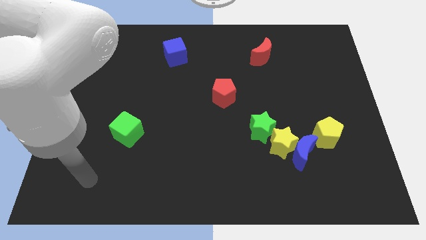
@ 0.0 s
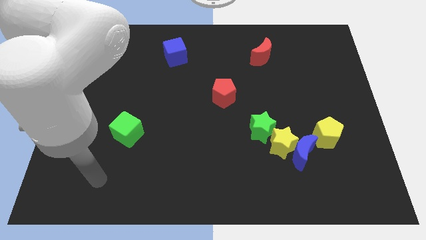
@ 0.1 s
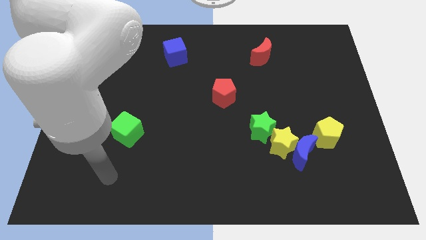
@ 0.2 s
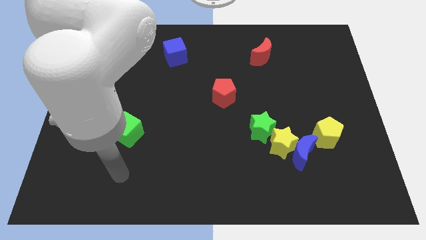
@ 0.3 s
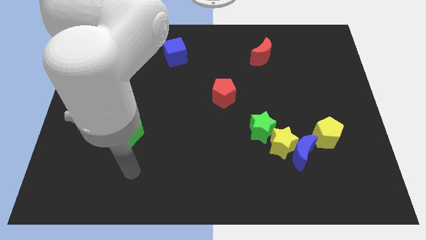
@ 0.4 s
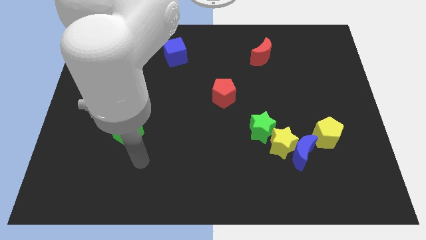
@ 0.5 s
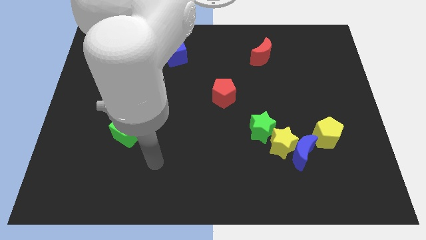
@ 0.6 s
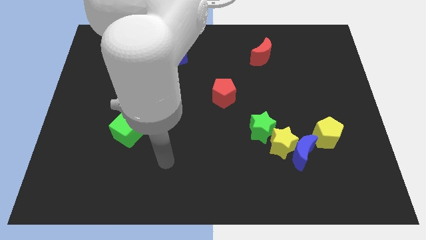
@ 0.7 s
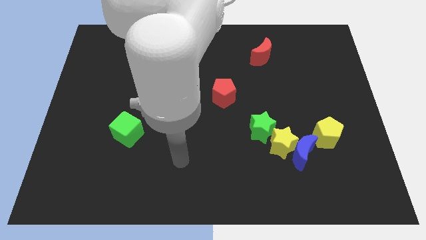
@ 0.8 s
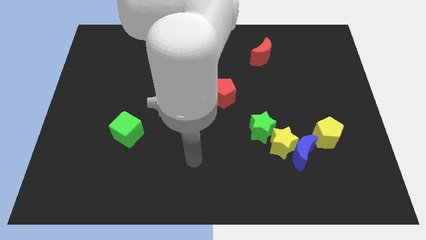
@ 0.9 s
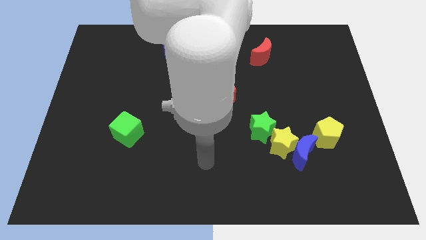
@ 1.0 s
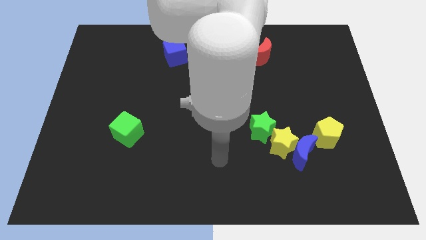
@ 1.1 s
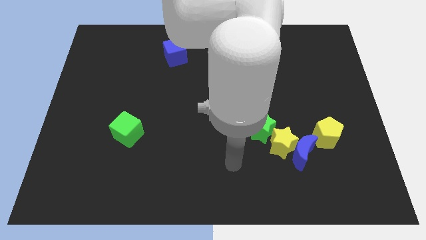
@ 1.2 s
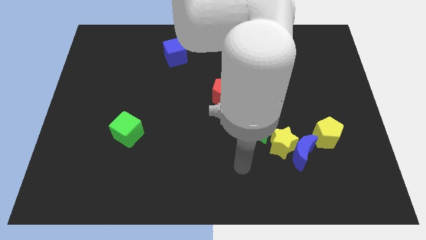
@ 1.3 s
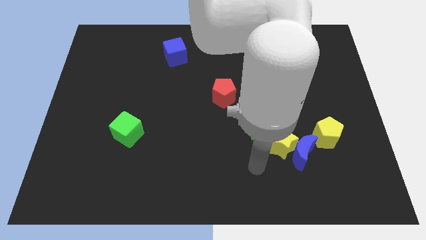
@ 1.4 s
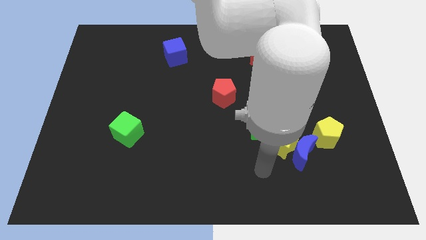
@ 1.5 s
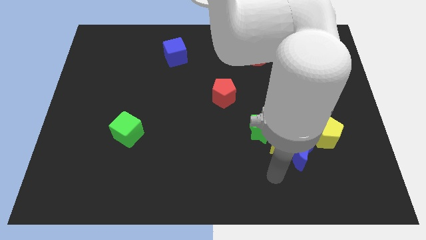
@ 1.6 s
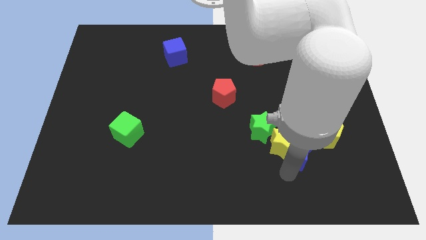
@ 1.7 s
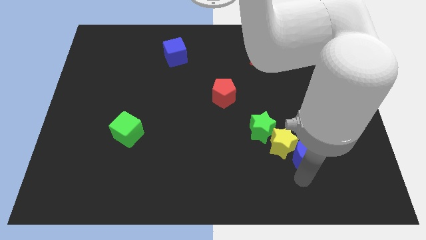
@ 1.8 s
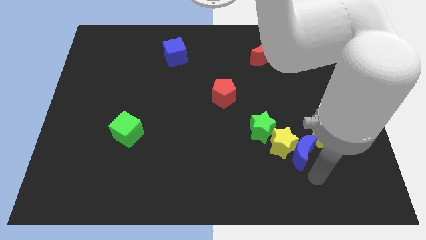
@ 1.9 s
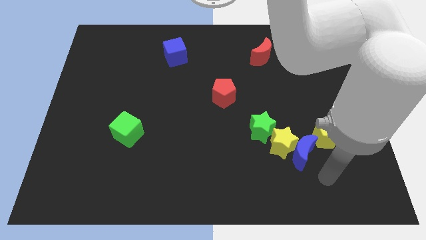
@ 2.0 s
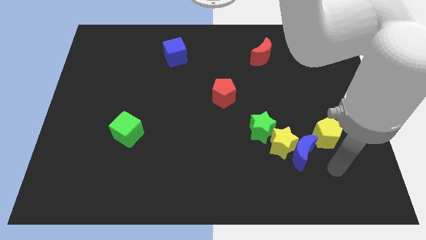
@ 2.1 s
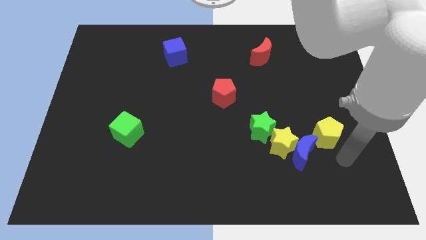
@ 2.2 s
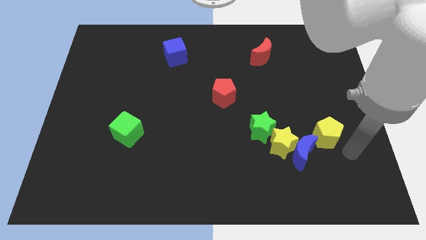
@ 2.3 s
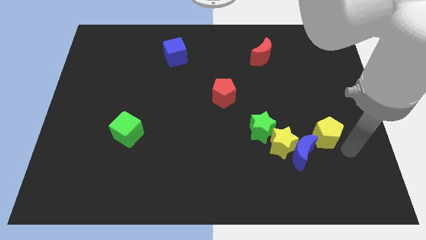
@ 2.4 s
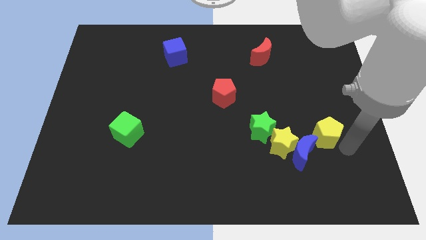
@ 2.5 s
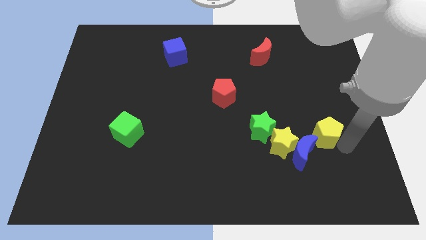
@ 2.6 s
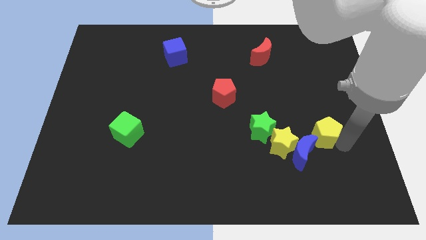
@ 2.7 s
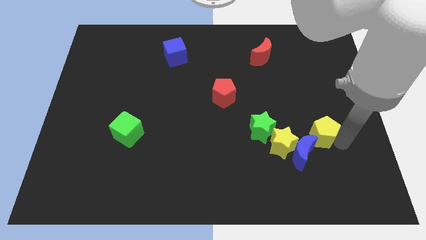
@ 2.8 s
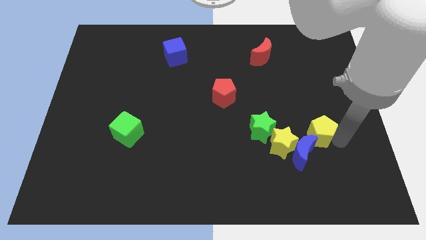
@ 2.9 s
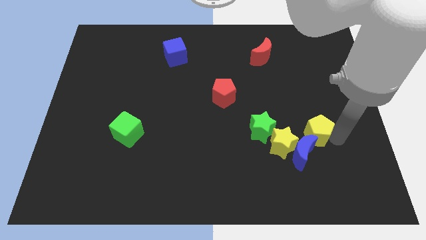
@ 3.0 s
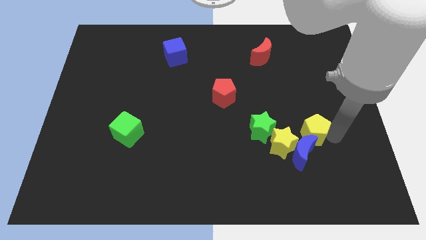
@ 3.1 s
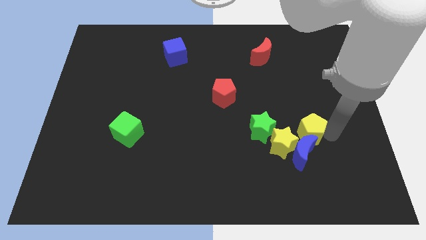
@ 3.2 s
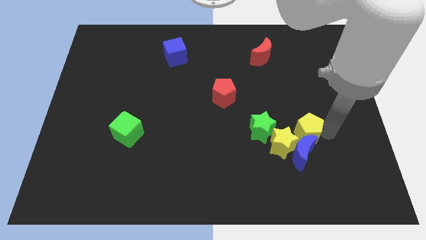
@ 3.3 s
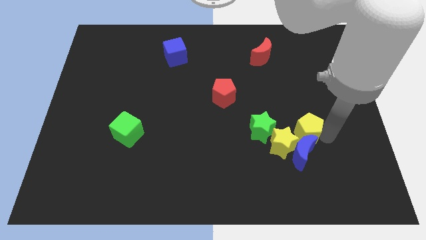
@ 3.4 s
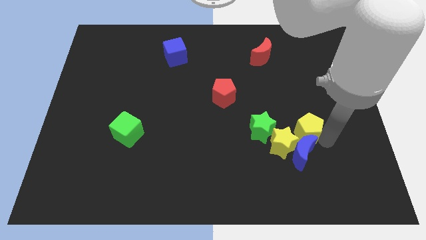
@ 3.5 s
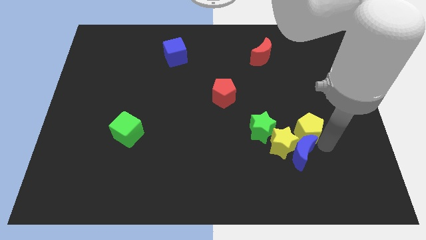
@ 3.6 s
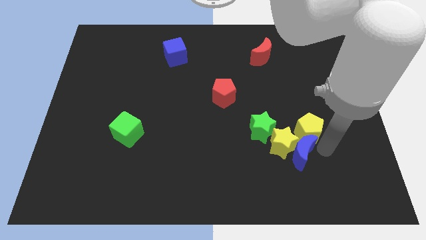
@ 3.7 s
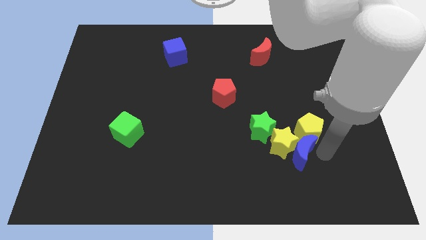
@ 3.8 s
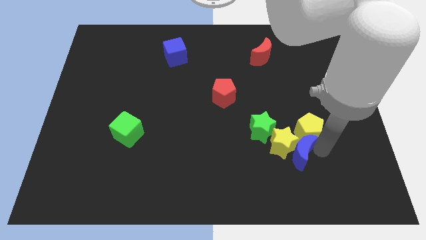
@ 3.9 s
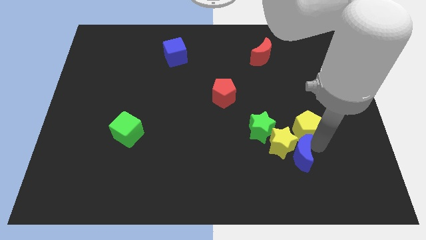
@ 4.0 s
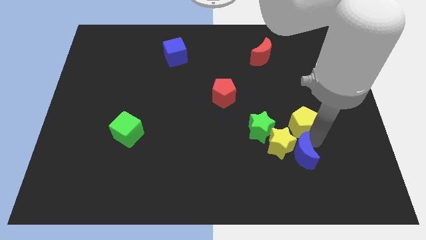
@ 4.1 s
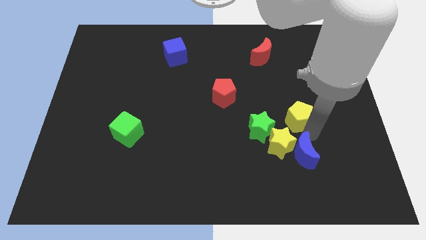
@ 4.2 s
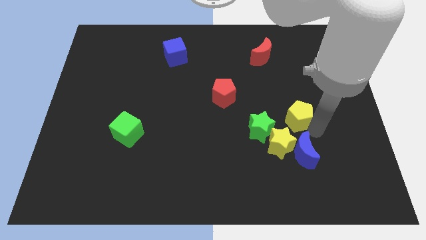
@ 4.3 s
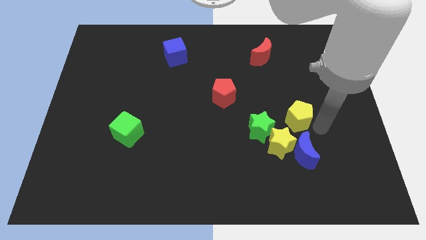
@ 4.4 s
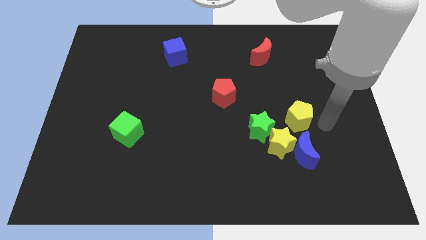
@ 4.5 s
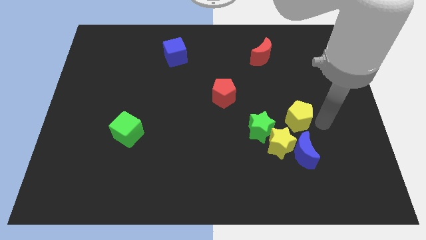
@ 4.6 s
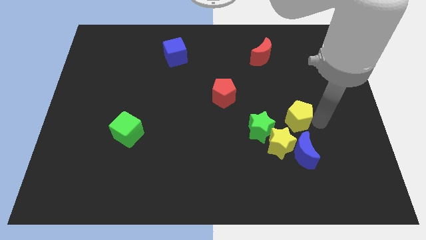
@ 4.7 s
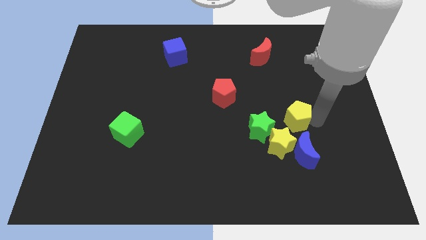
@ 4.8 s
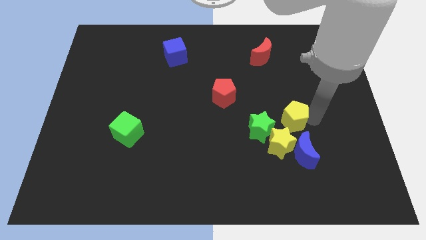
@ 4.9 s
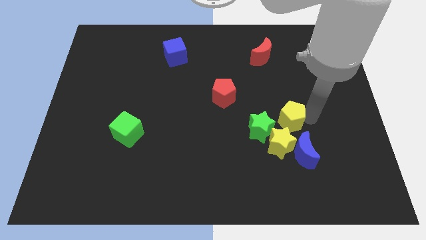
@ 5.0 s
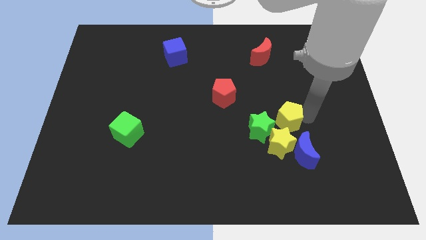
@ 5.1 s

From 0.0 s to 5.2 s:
push the yellow pentagon slightly to the left

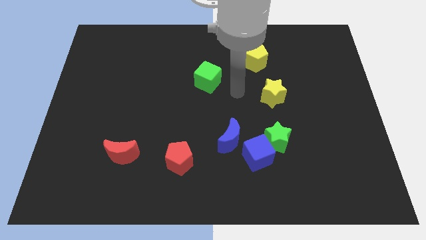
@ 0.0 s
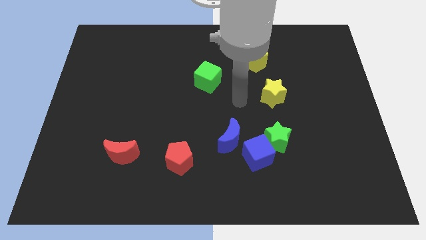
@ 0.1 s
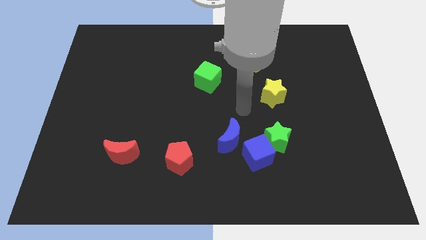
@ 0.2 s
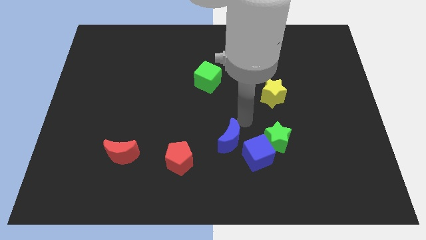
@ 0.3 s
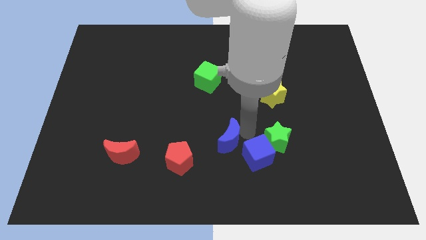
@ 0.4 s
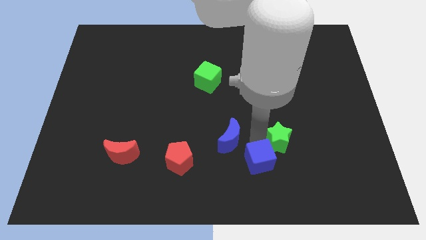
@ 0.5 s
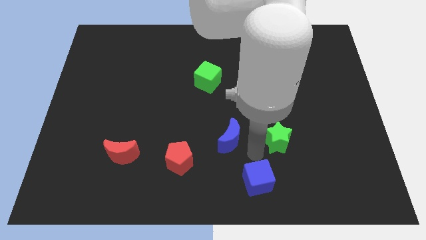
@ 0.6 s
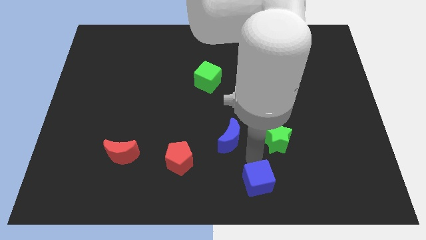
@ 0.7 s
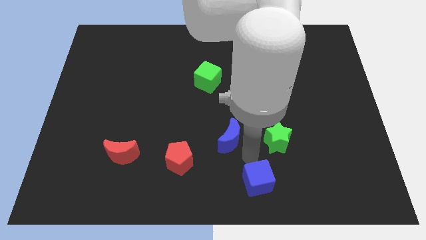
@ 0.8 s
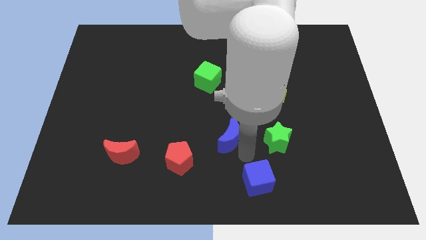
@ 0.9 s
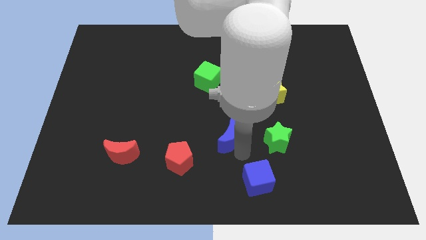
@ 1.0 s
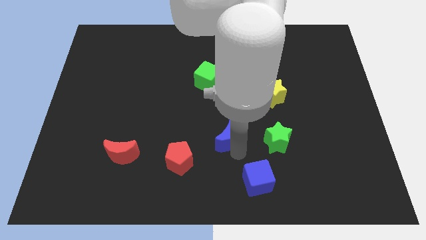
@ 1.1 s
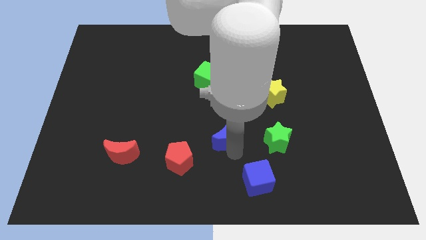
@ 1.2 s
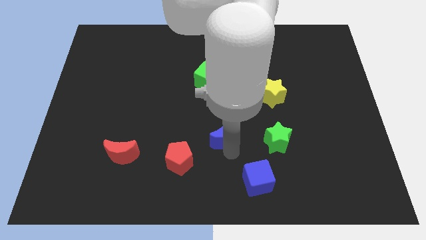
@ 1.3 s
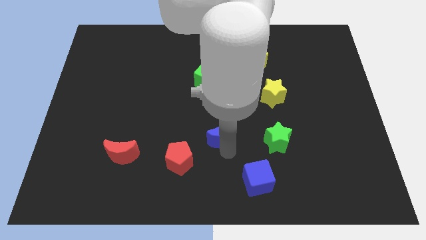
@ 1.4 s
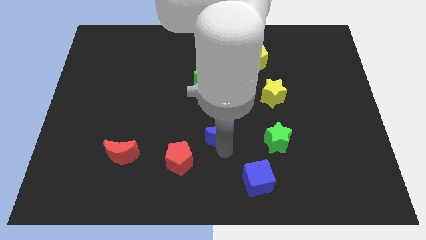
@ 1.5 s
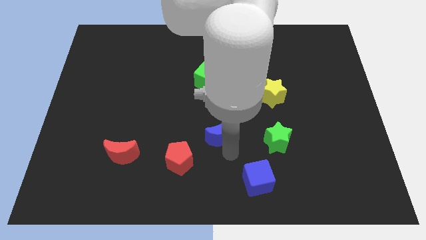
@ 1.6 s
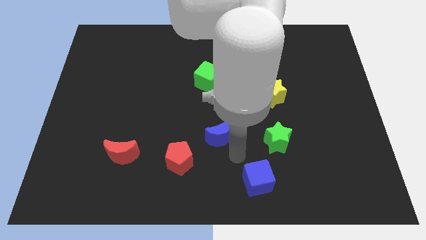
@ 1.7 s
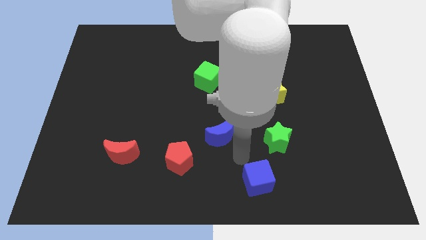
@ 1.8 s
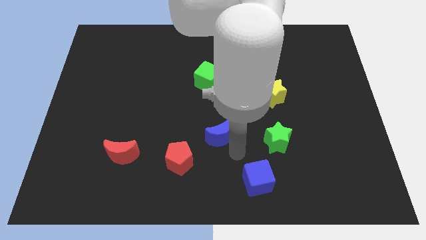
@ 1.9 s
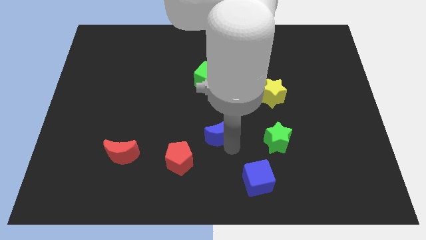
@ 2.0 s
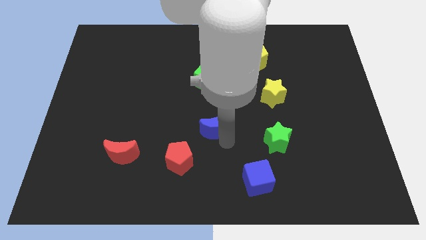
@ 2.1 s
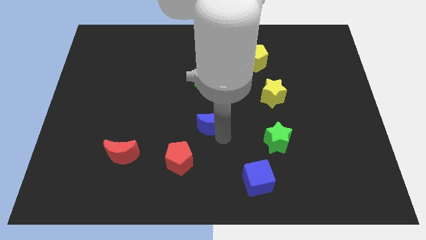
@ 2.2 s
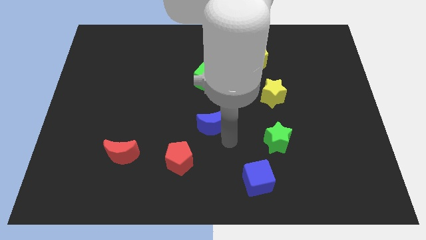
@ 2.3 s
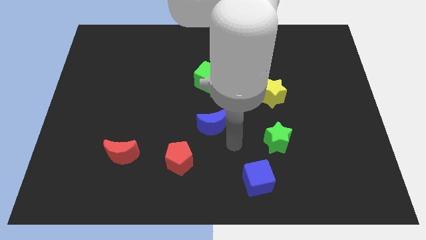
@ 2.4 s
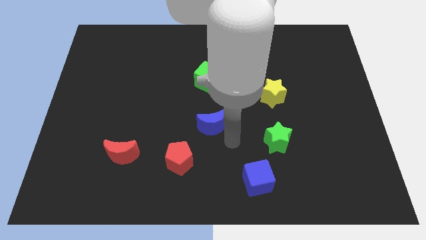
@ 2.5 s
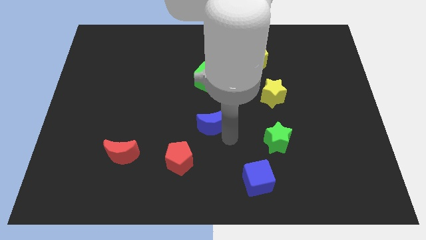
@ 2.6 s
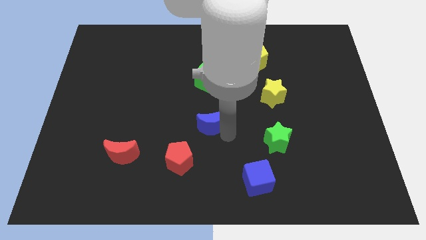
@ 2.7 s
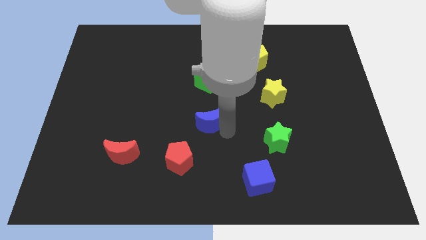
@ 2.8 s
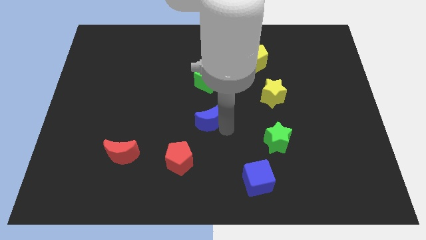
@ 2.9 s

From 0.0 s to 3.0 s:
slightly slide the blue moon up and left
